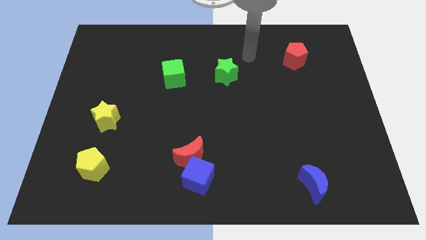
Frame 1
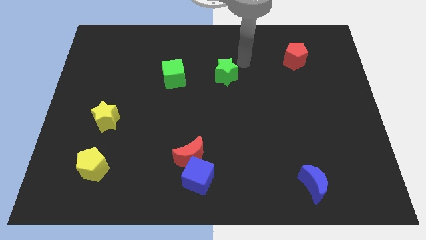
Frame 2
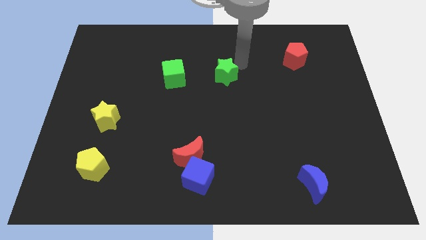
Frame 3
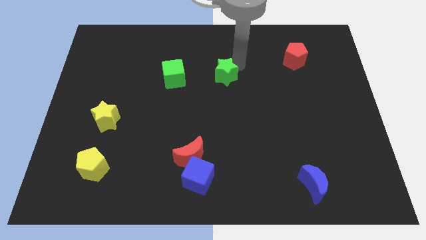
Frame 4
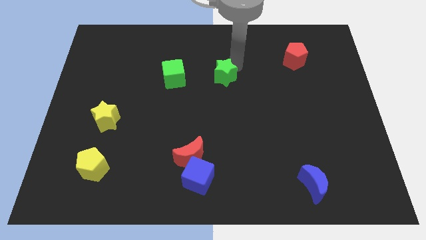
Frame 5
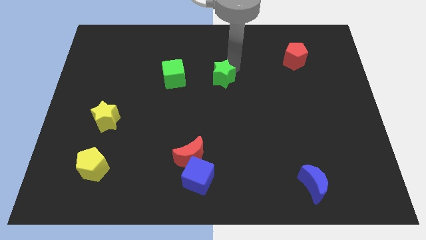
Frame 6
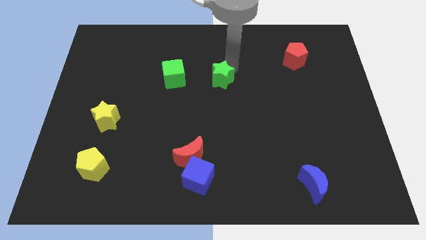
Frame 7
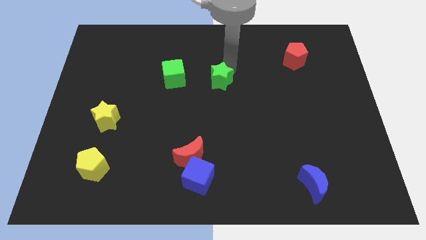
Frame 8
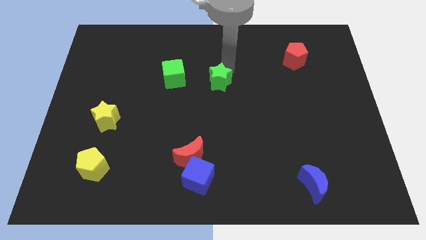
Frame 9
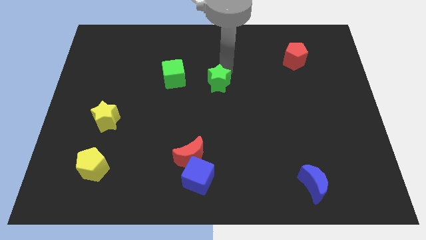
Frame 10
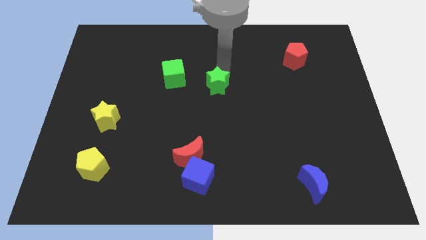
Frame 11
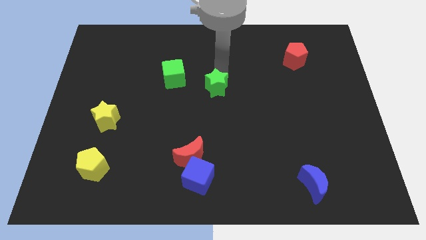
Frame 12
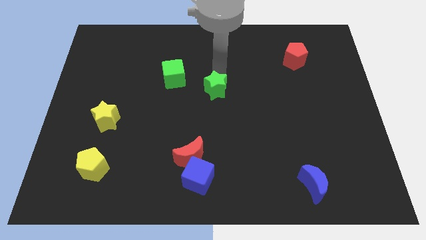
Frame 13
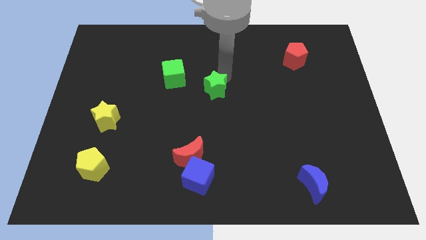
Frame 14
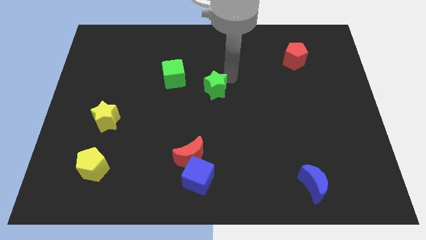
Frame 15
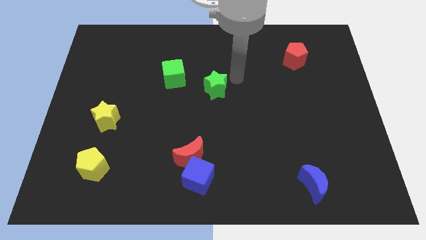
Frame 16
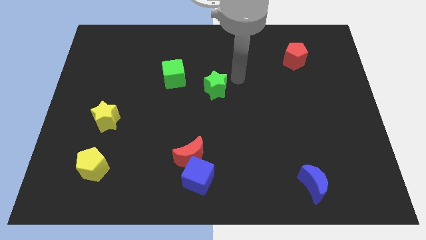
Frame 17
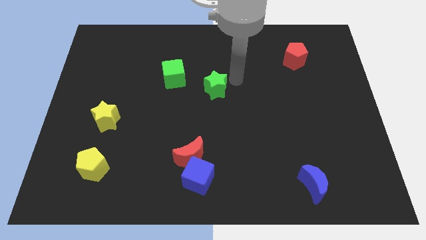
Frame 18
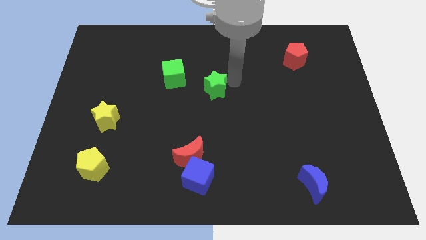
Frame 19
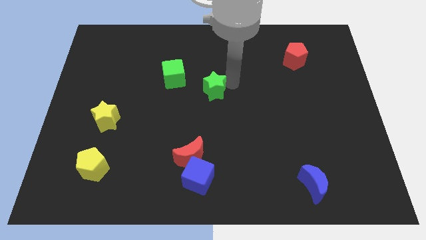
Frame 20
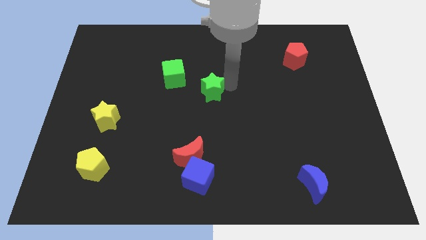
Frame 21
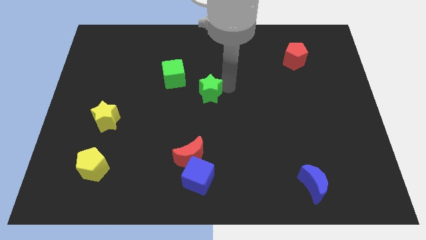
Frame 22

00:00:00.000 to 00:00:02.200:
slightly move the green star downwards and to the left

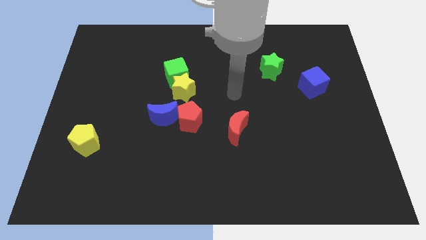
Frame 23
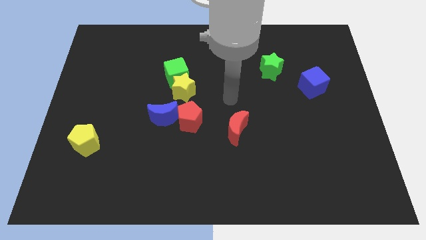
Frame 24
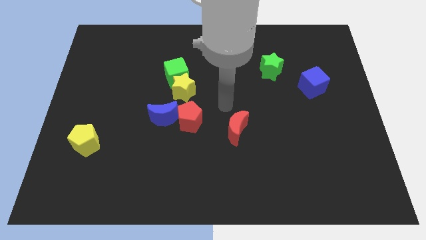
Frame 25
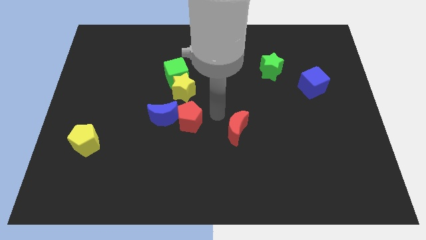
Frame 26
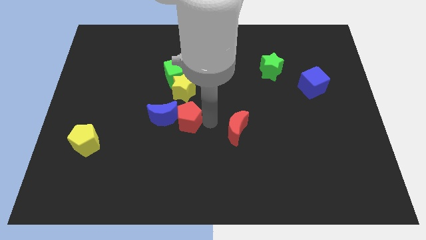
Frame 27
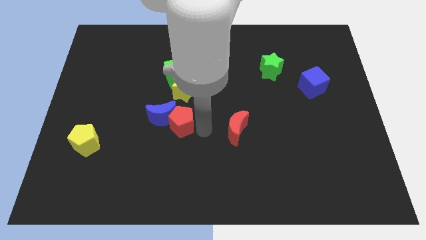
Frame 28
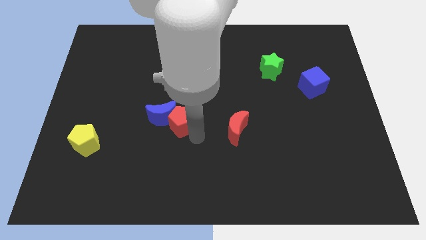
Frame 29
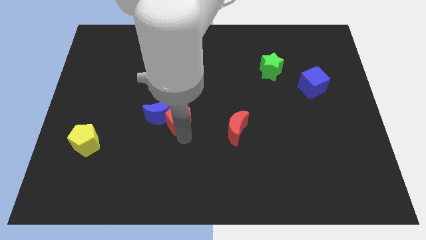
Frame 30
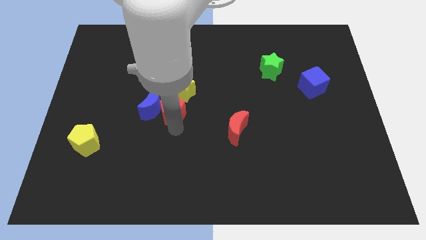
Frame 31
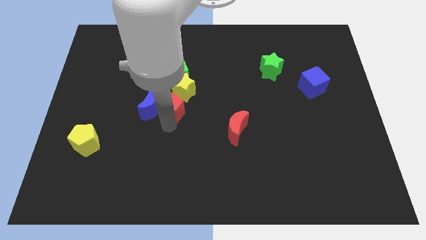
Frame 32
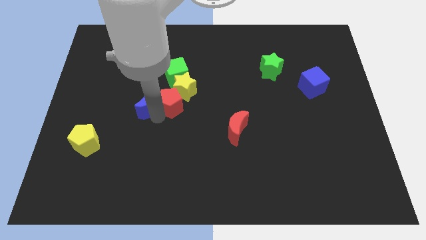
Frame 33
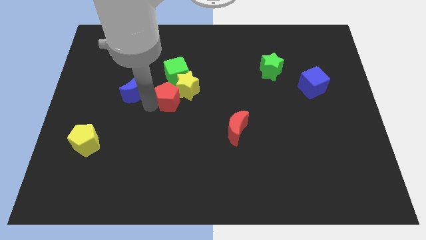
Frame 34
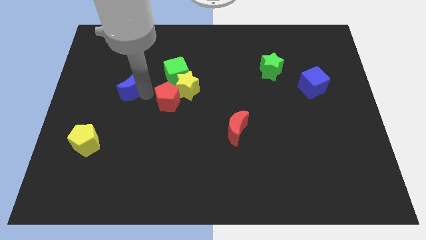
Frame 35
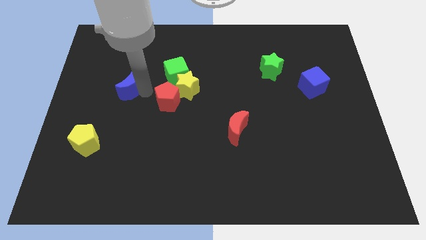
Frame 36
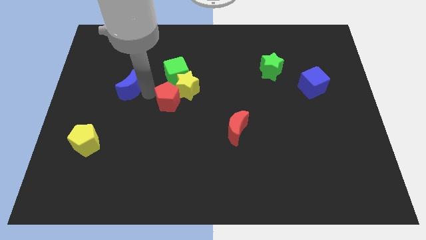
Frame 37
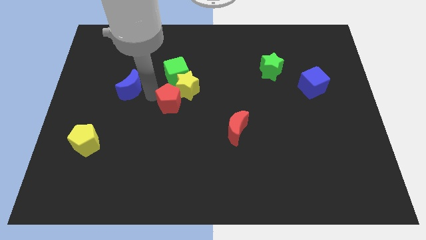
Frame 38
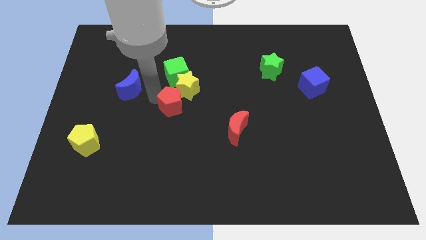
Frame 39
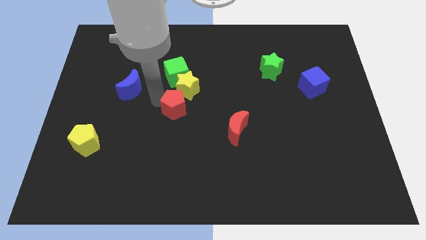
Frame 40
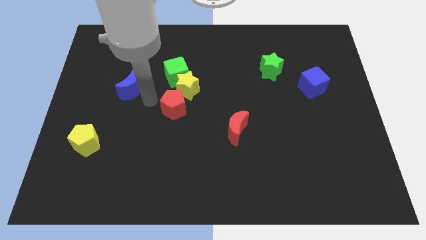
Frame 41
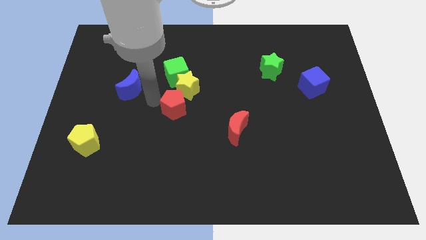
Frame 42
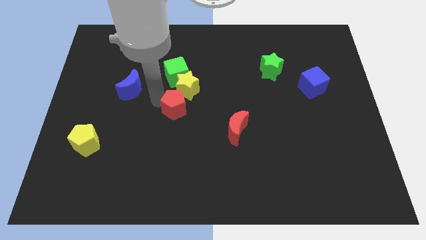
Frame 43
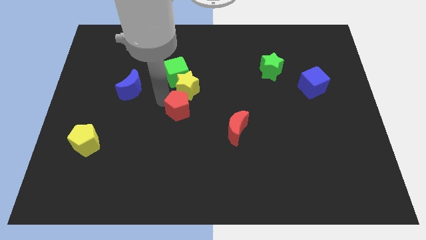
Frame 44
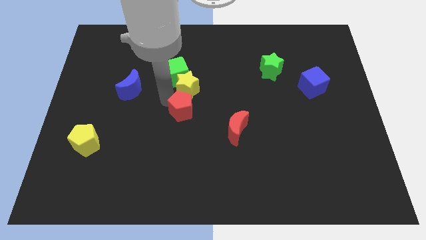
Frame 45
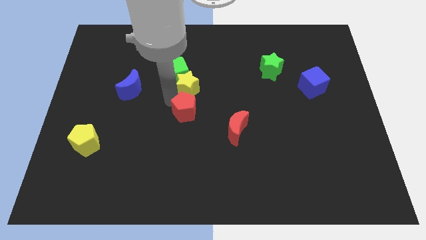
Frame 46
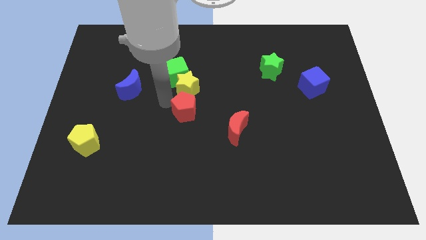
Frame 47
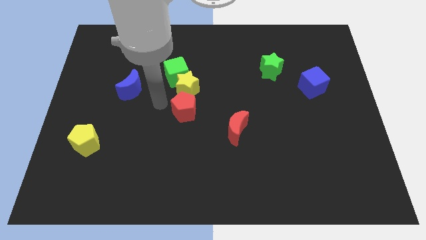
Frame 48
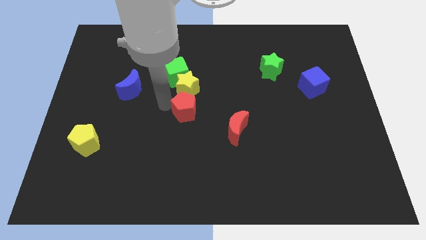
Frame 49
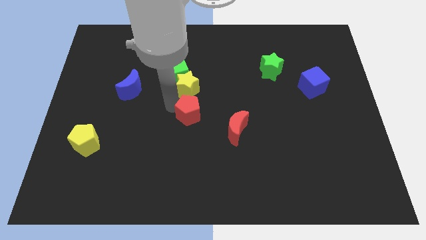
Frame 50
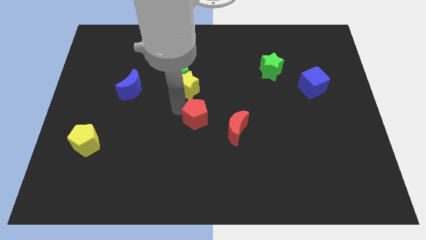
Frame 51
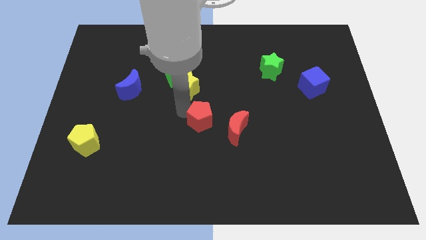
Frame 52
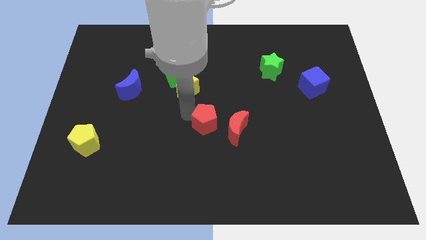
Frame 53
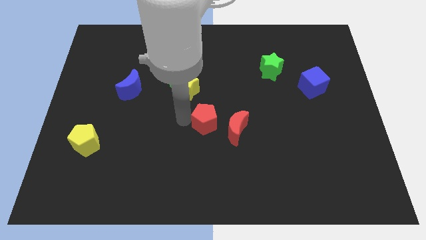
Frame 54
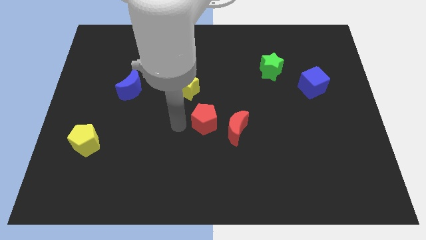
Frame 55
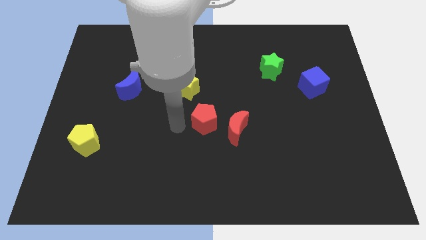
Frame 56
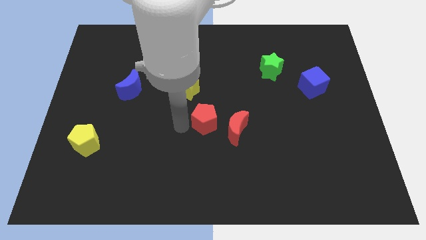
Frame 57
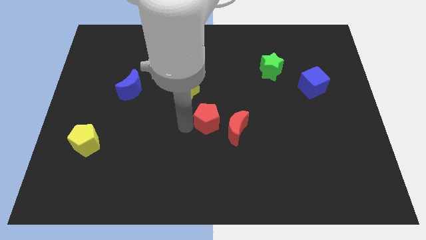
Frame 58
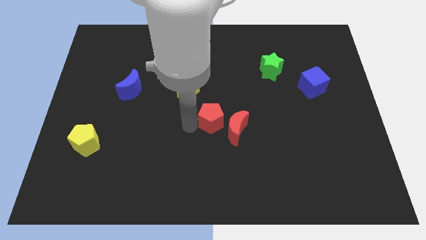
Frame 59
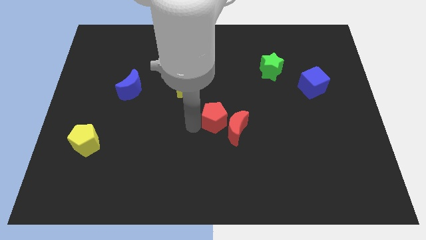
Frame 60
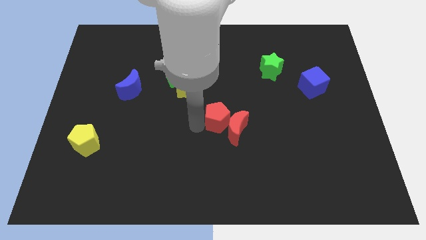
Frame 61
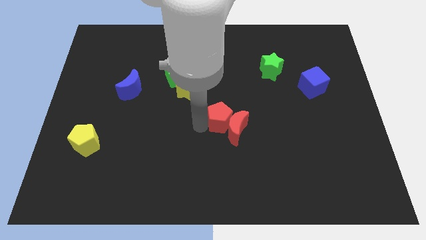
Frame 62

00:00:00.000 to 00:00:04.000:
move the red pentagon somewhat right

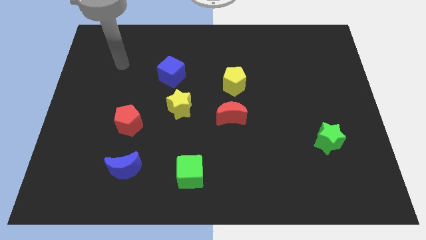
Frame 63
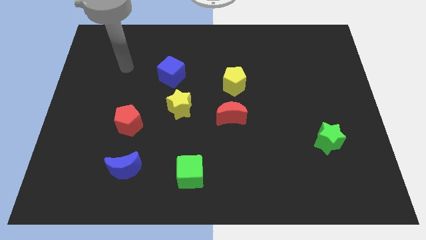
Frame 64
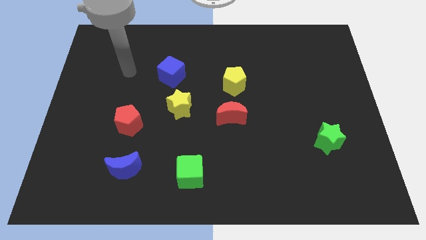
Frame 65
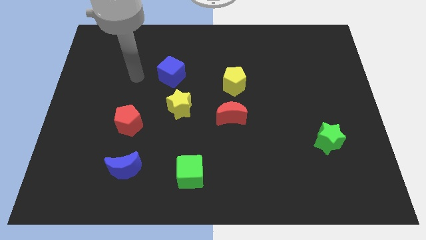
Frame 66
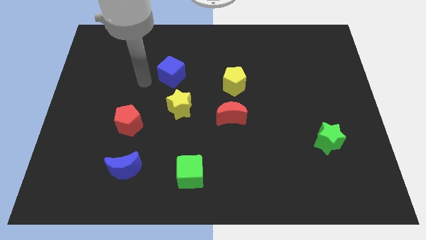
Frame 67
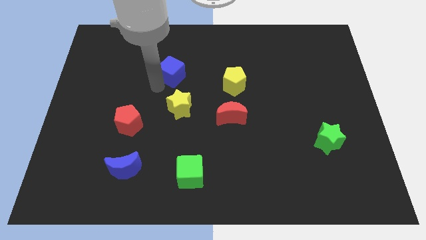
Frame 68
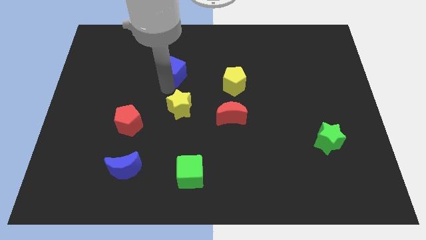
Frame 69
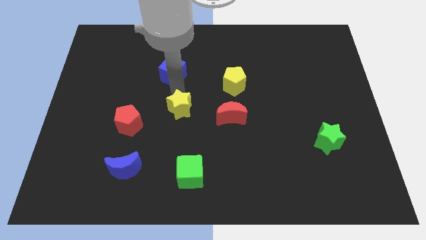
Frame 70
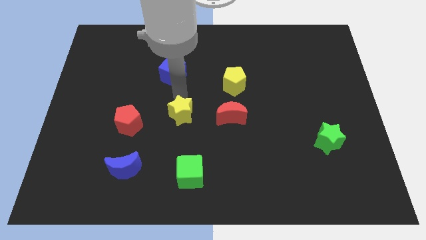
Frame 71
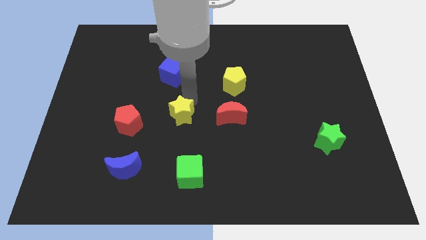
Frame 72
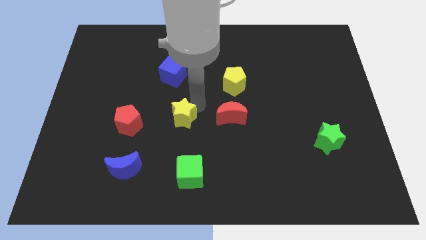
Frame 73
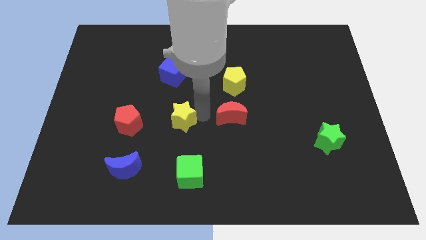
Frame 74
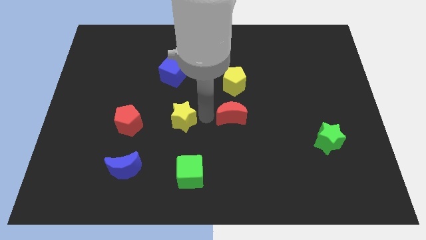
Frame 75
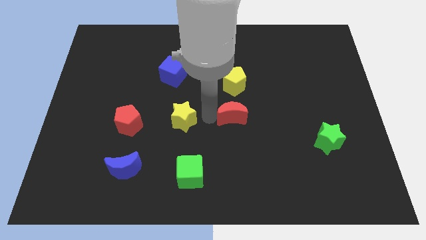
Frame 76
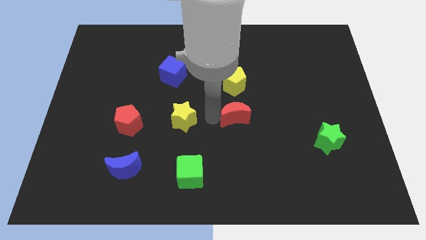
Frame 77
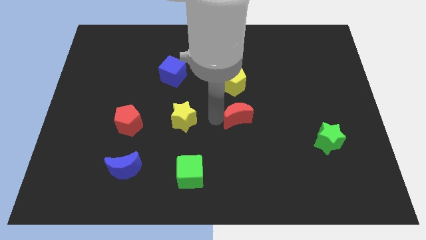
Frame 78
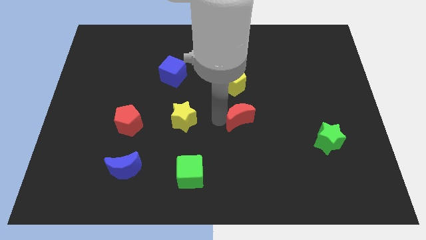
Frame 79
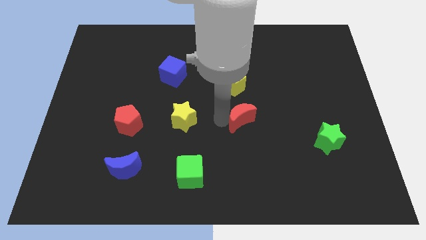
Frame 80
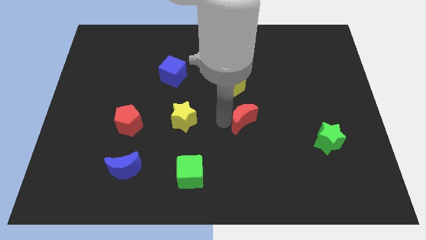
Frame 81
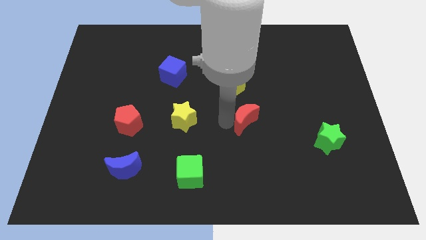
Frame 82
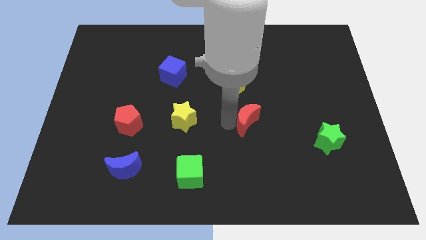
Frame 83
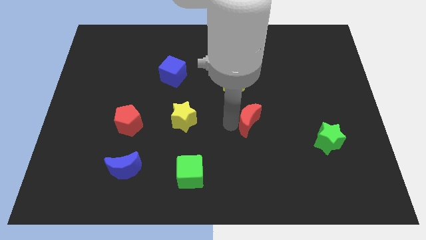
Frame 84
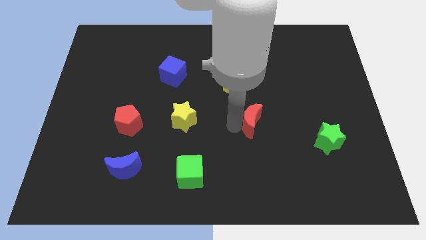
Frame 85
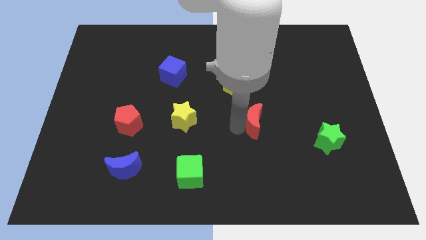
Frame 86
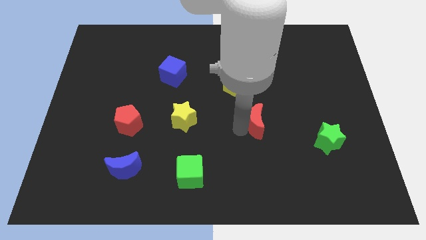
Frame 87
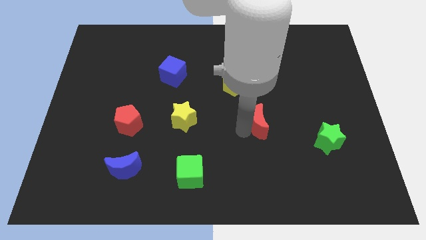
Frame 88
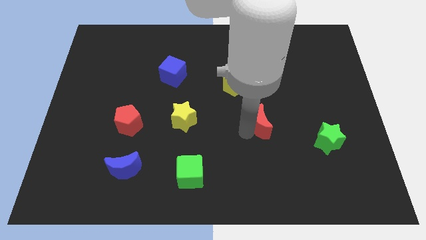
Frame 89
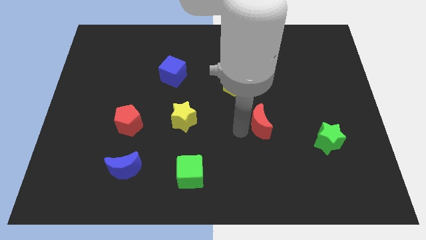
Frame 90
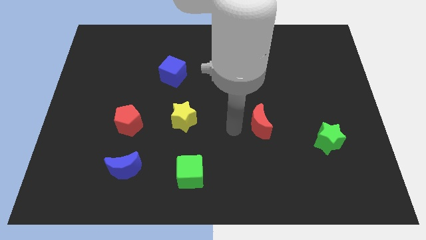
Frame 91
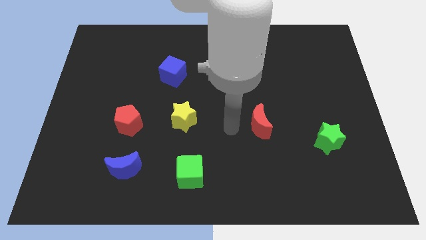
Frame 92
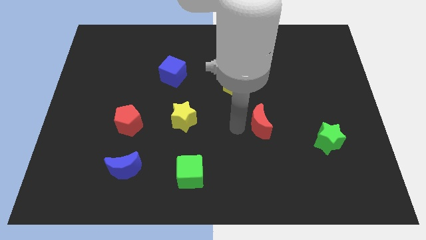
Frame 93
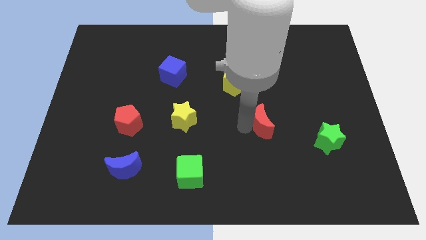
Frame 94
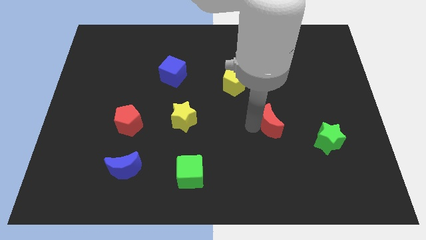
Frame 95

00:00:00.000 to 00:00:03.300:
slide the red moon to the right somewhat
